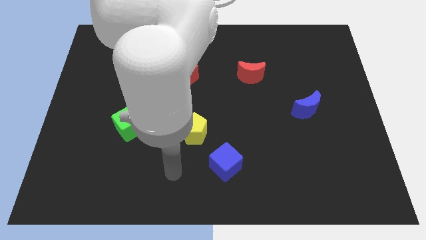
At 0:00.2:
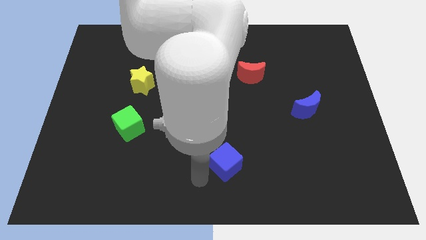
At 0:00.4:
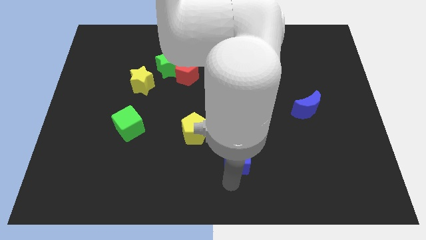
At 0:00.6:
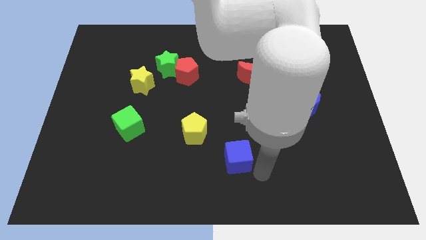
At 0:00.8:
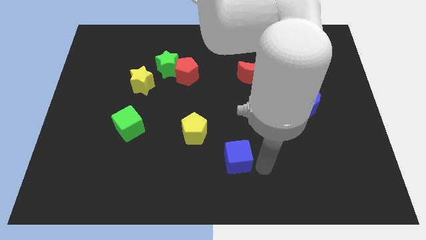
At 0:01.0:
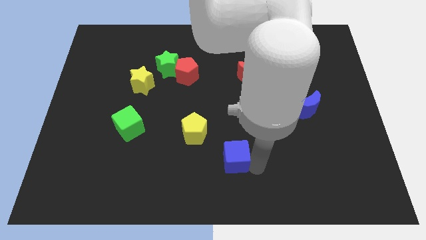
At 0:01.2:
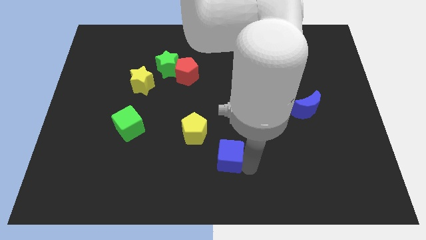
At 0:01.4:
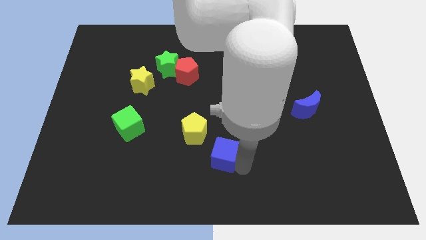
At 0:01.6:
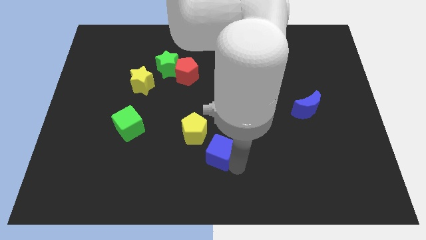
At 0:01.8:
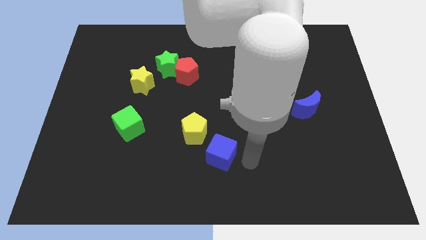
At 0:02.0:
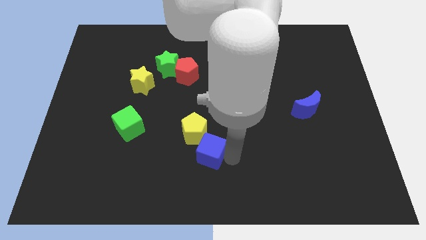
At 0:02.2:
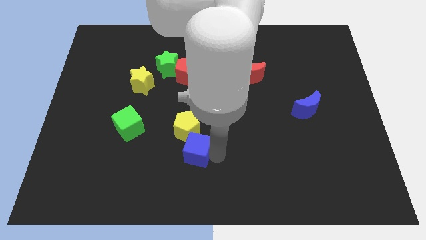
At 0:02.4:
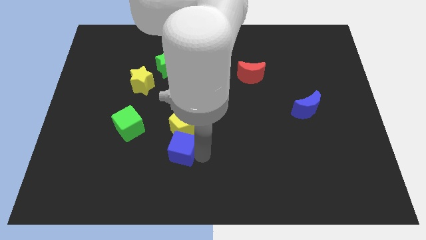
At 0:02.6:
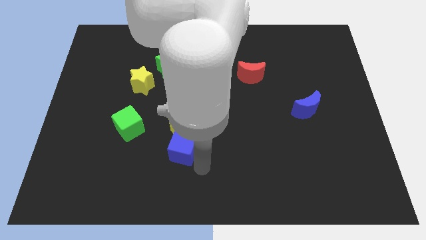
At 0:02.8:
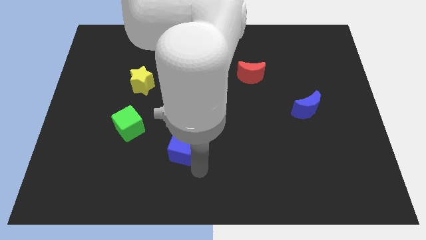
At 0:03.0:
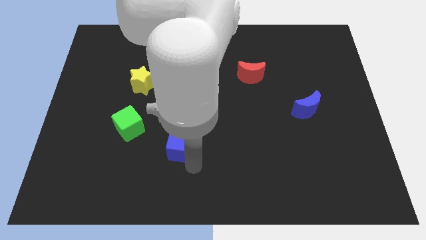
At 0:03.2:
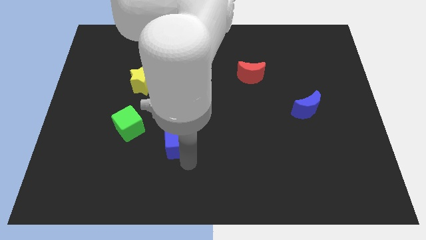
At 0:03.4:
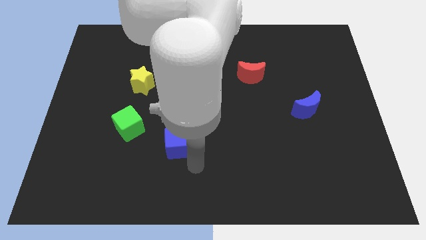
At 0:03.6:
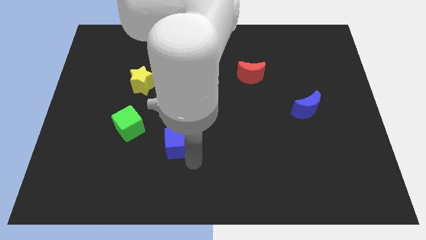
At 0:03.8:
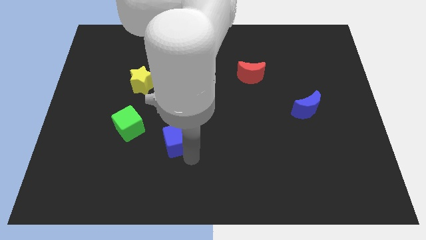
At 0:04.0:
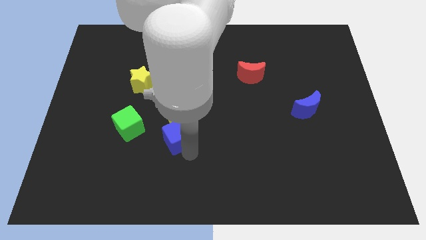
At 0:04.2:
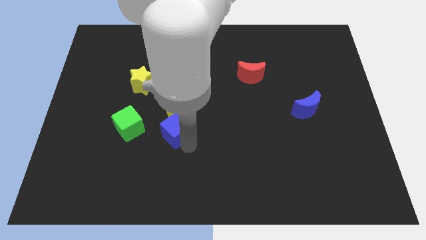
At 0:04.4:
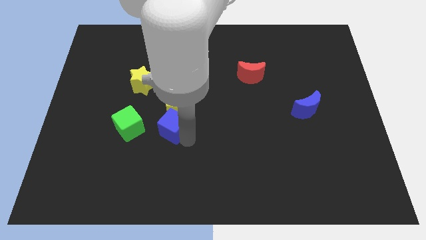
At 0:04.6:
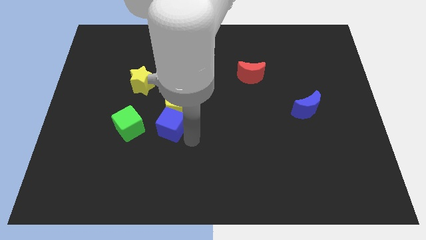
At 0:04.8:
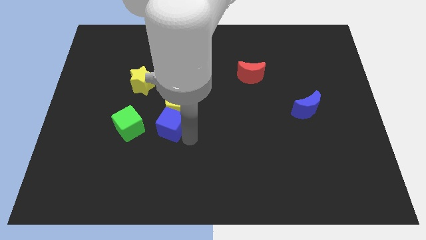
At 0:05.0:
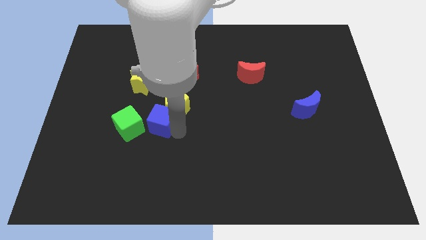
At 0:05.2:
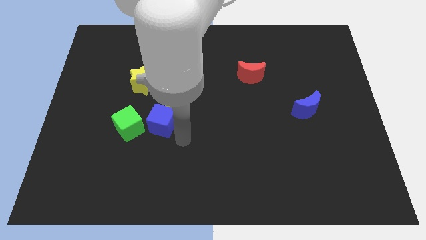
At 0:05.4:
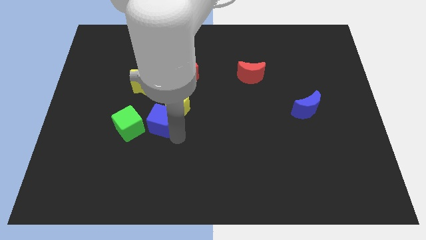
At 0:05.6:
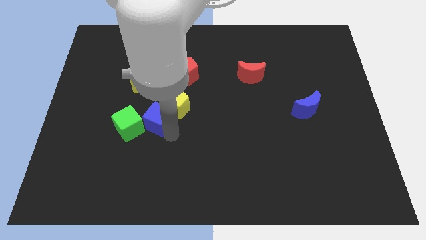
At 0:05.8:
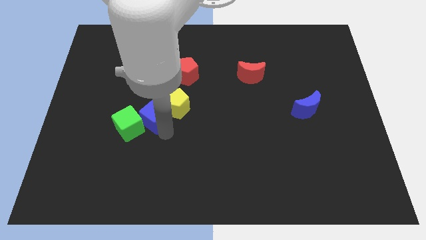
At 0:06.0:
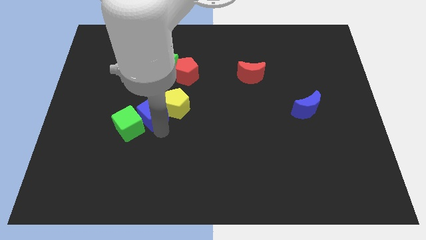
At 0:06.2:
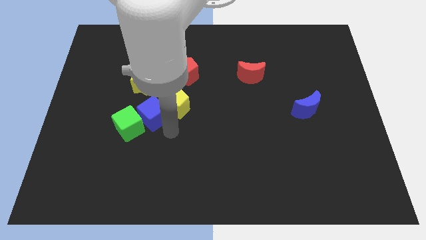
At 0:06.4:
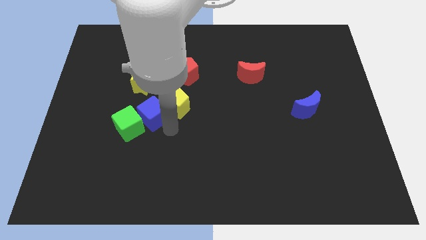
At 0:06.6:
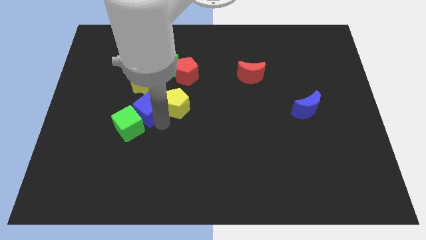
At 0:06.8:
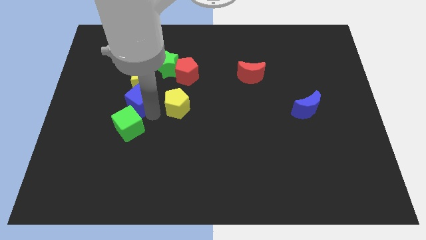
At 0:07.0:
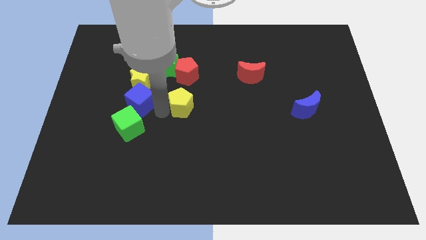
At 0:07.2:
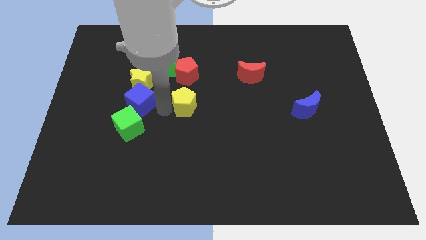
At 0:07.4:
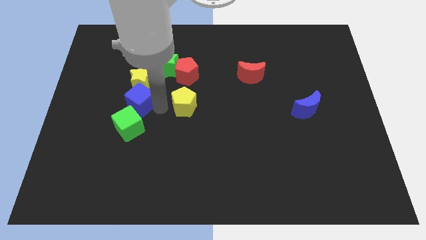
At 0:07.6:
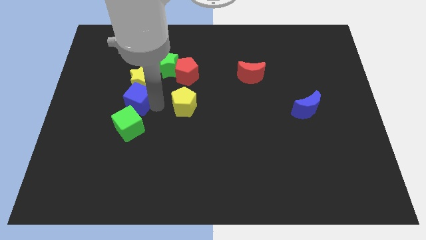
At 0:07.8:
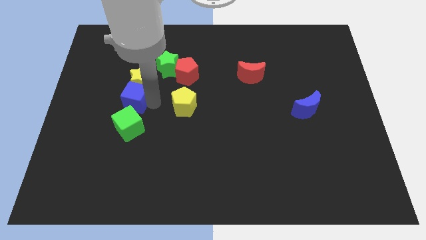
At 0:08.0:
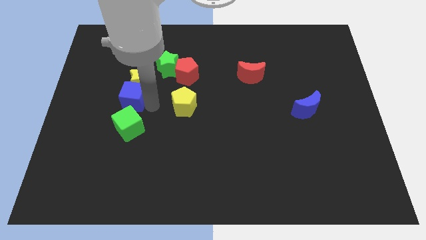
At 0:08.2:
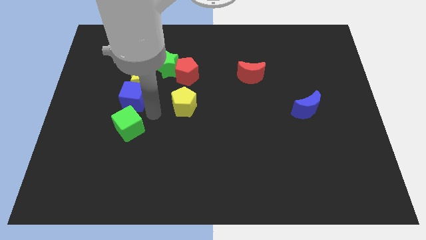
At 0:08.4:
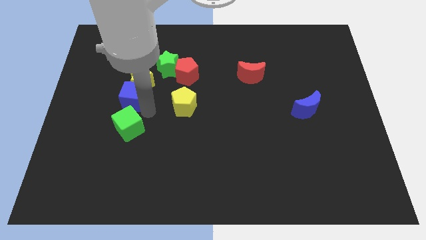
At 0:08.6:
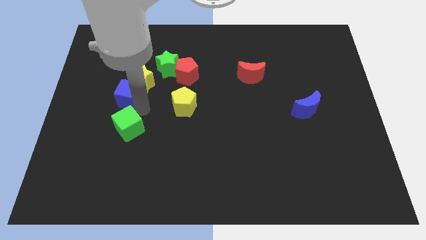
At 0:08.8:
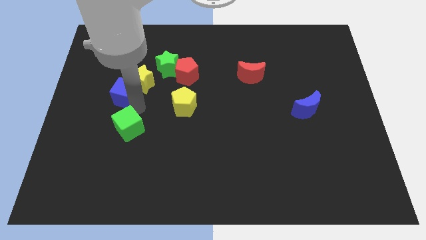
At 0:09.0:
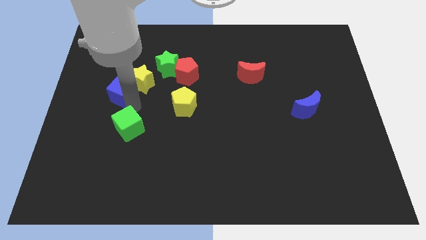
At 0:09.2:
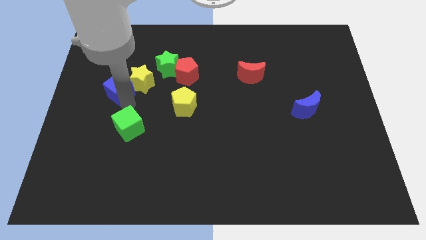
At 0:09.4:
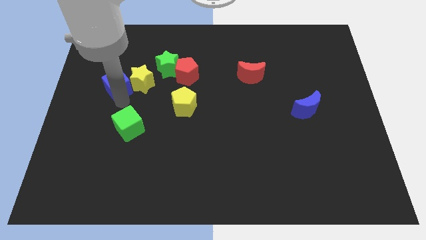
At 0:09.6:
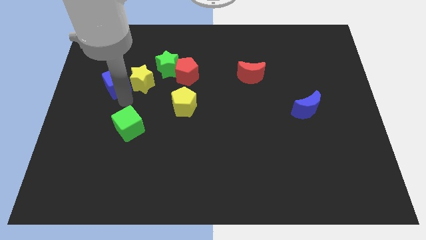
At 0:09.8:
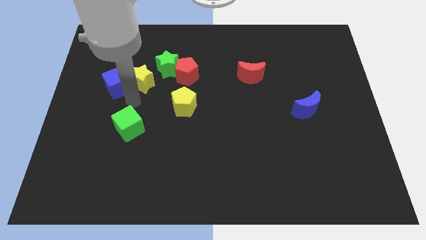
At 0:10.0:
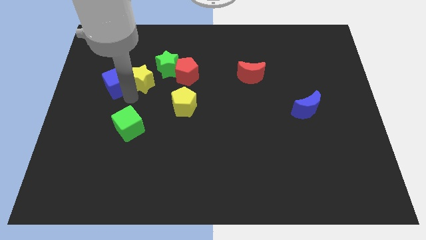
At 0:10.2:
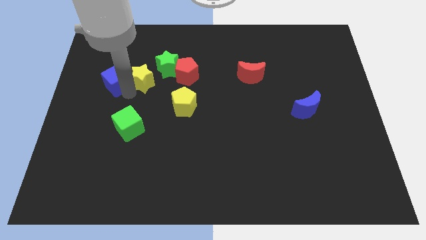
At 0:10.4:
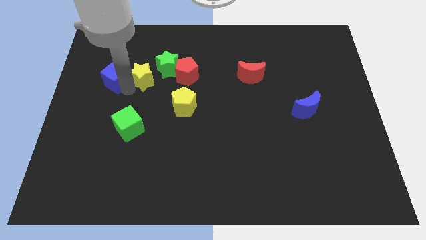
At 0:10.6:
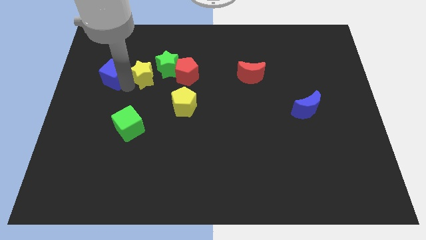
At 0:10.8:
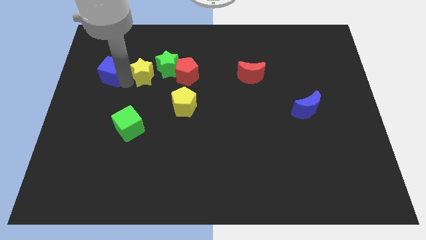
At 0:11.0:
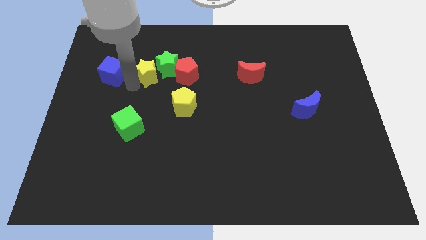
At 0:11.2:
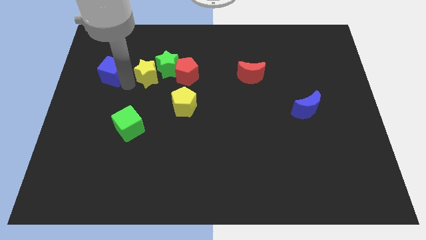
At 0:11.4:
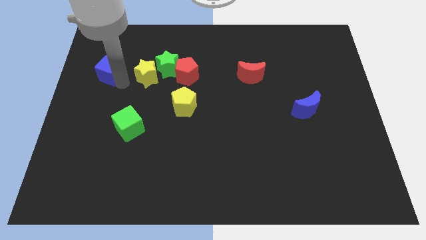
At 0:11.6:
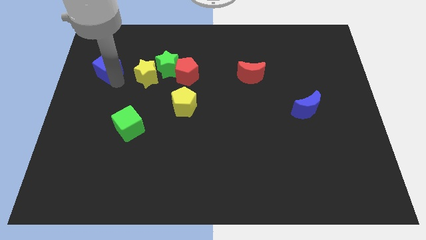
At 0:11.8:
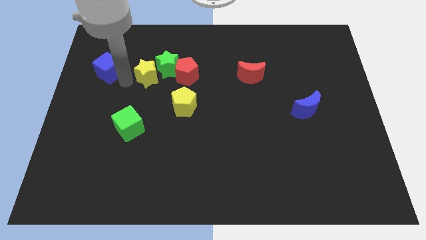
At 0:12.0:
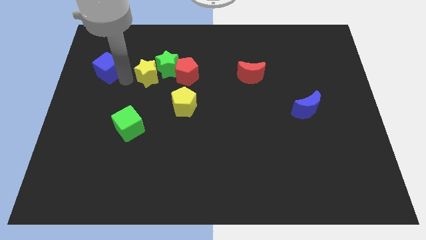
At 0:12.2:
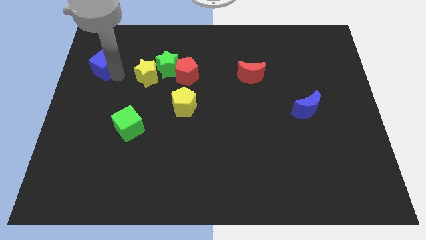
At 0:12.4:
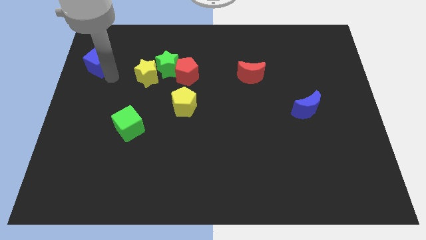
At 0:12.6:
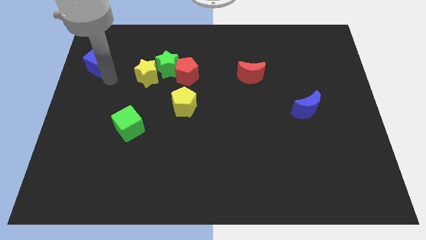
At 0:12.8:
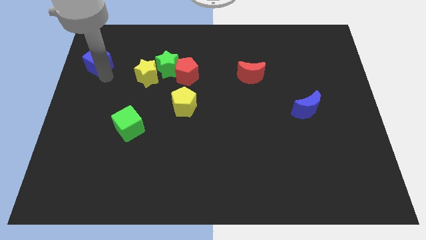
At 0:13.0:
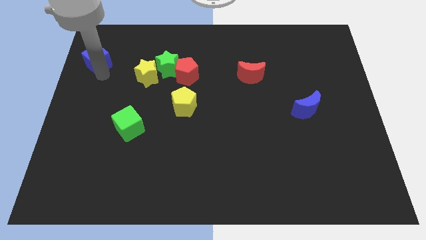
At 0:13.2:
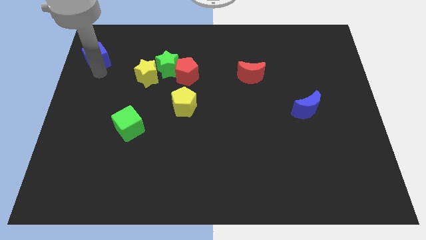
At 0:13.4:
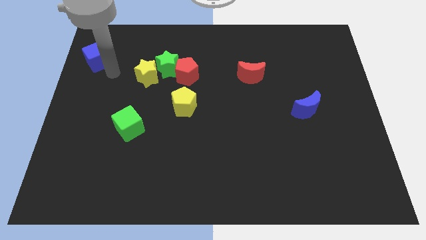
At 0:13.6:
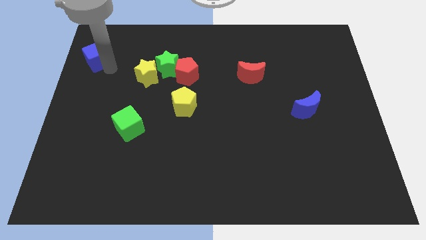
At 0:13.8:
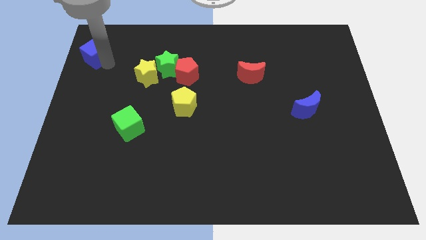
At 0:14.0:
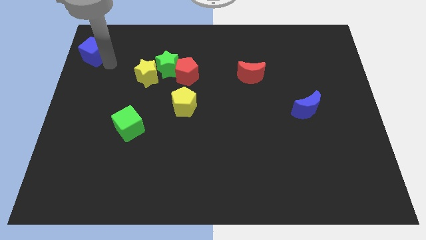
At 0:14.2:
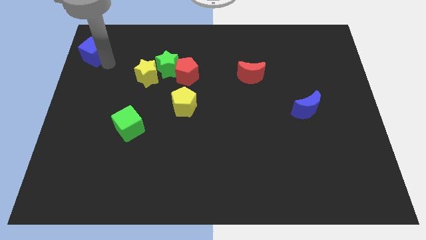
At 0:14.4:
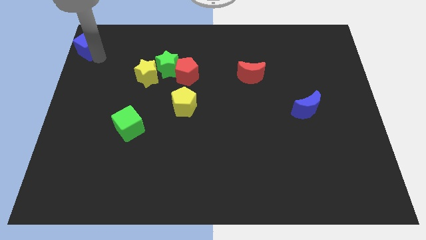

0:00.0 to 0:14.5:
push the blue cube to the top left corner
